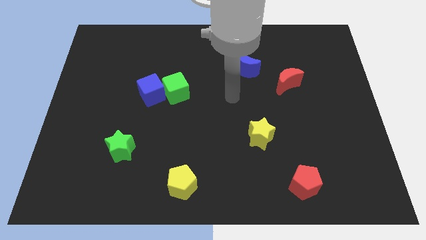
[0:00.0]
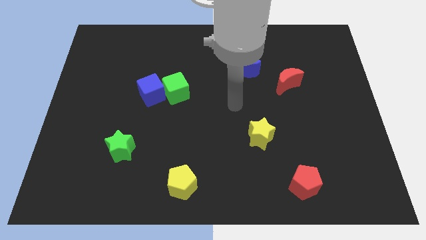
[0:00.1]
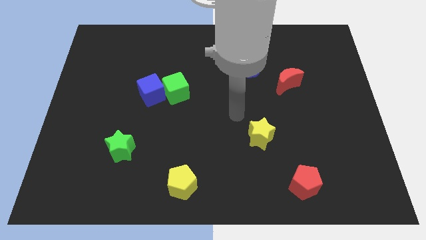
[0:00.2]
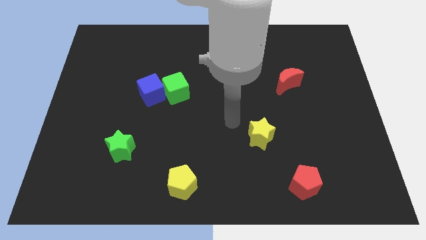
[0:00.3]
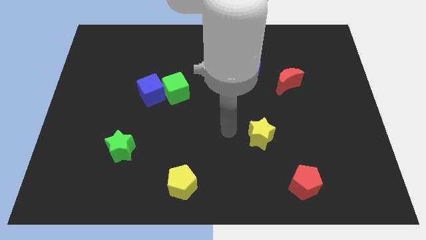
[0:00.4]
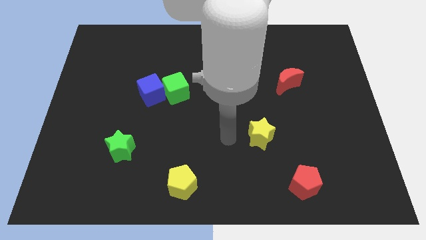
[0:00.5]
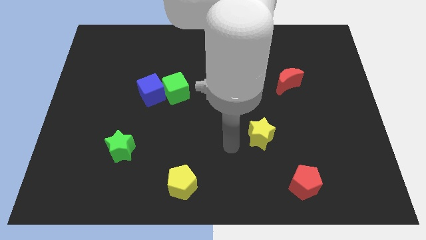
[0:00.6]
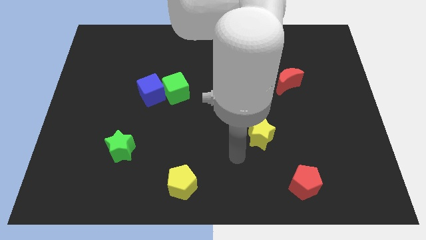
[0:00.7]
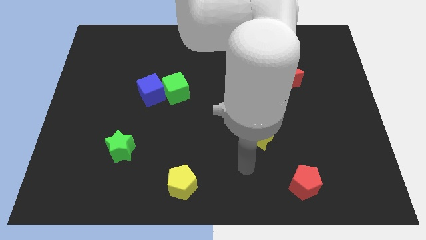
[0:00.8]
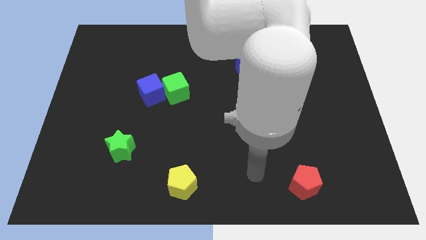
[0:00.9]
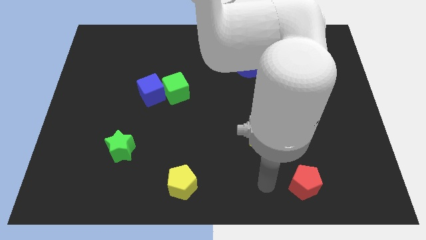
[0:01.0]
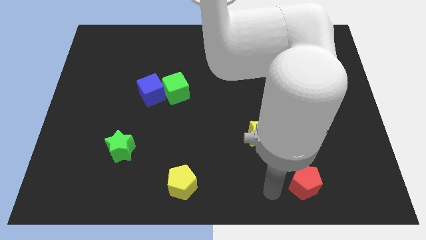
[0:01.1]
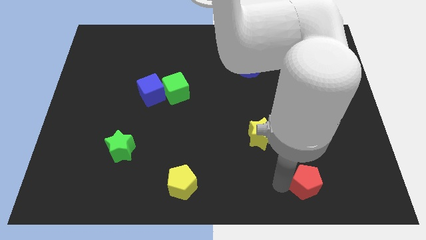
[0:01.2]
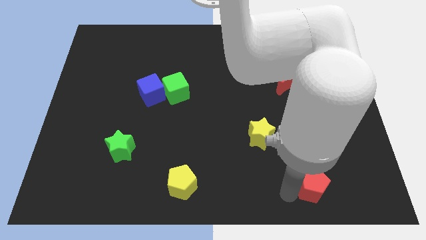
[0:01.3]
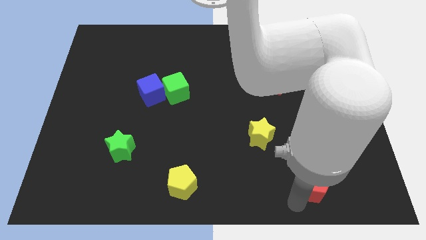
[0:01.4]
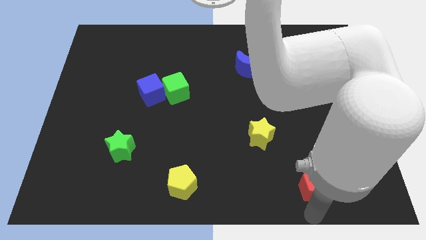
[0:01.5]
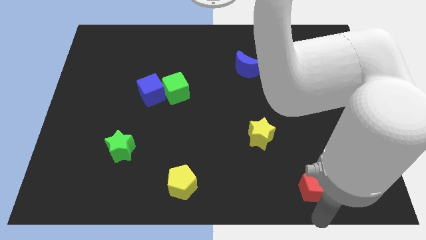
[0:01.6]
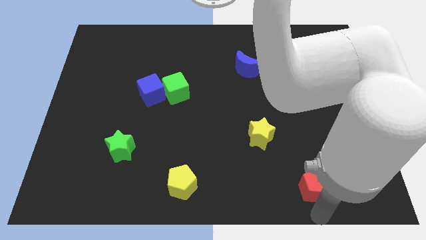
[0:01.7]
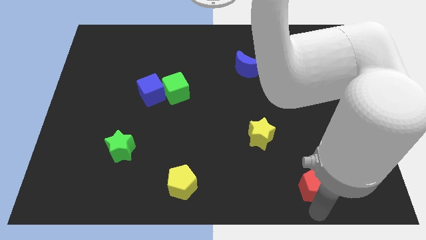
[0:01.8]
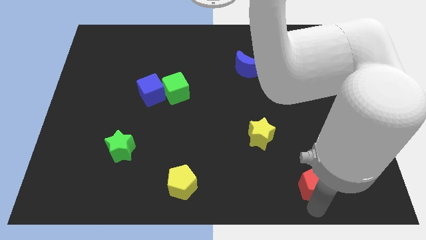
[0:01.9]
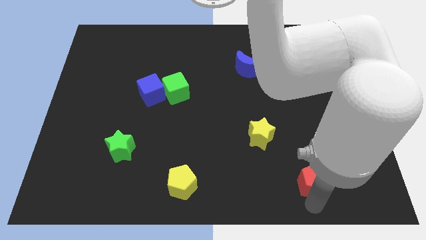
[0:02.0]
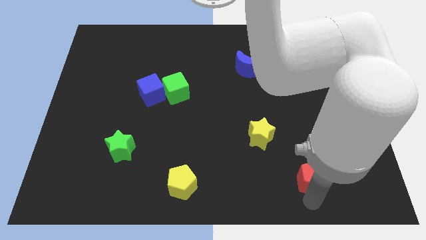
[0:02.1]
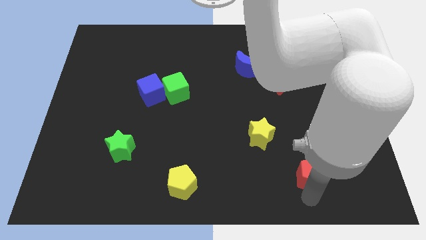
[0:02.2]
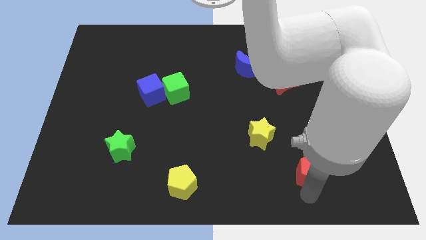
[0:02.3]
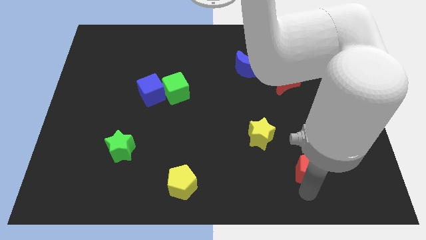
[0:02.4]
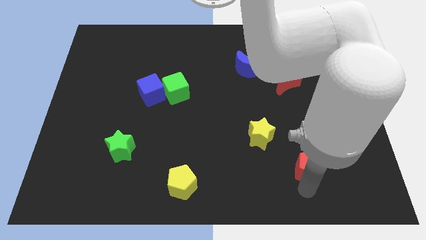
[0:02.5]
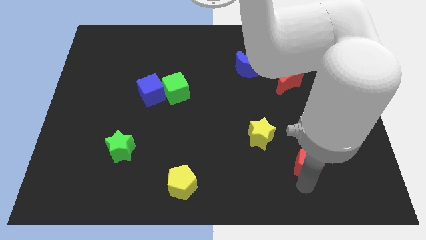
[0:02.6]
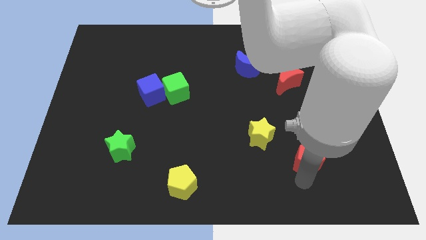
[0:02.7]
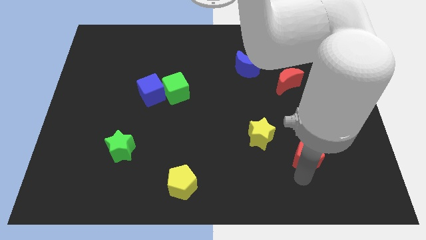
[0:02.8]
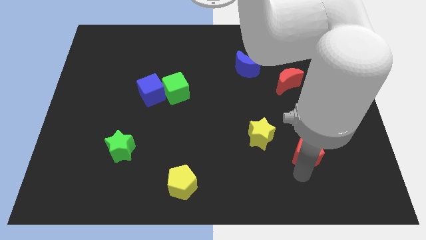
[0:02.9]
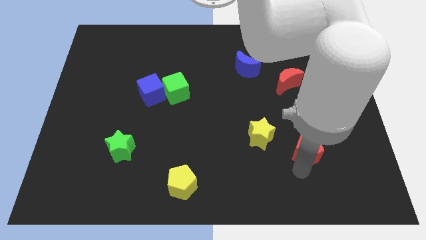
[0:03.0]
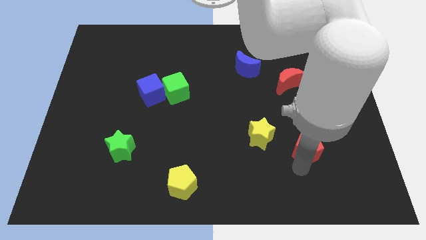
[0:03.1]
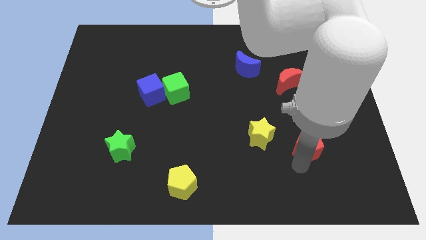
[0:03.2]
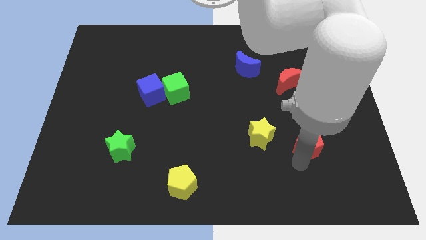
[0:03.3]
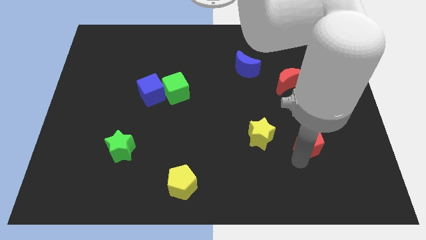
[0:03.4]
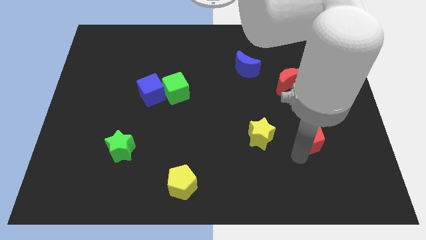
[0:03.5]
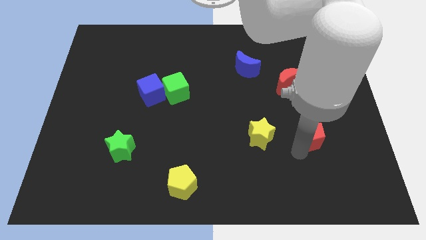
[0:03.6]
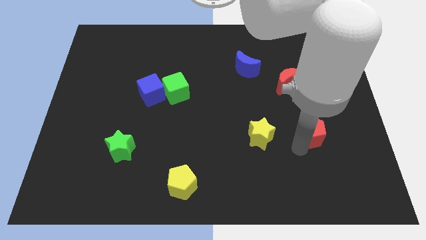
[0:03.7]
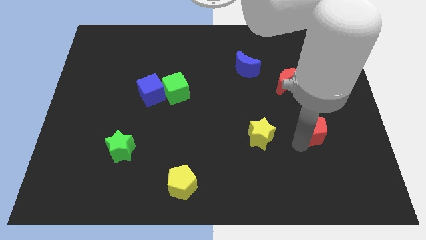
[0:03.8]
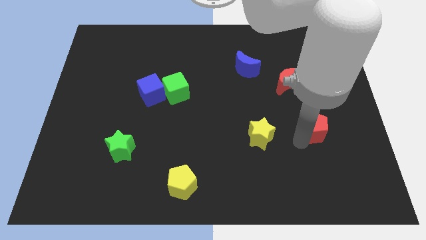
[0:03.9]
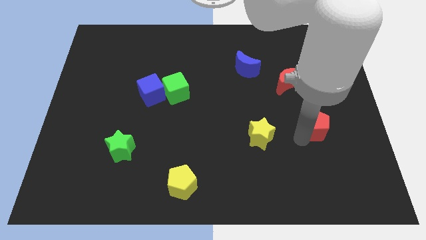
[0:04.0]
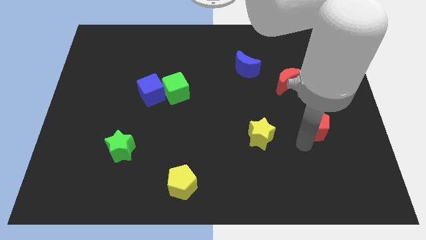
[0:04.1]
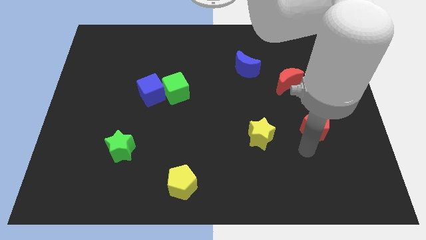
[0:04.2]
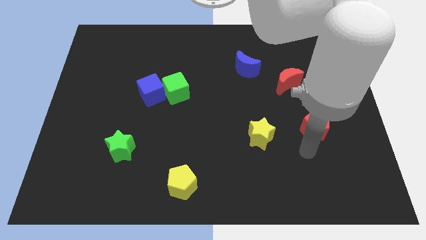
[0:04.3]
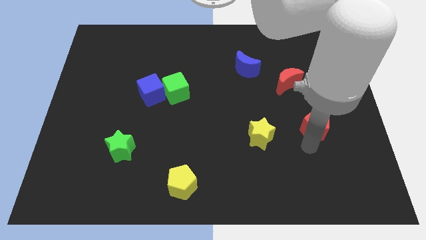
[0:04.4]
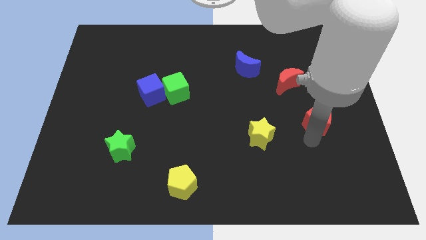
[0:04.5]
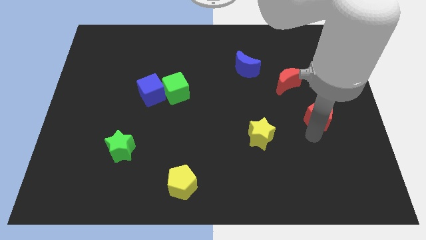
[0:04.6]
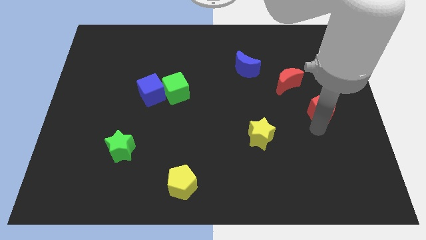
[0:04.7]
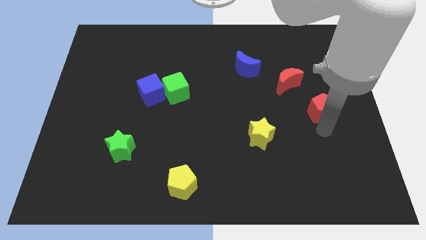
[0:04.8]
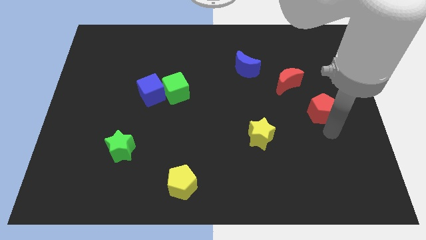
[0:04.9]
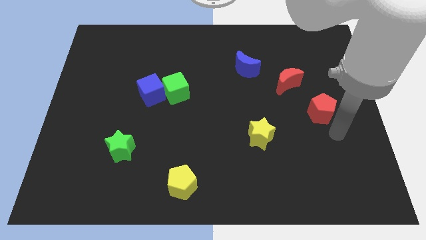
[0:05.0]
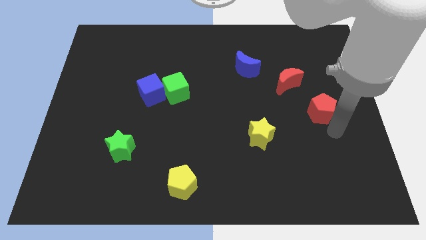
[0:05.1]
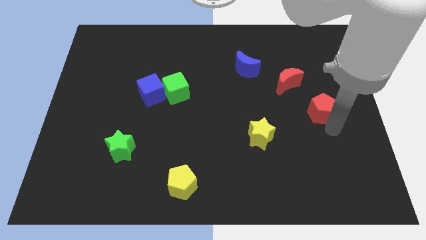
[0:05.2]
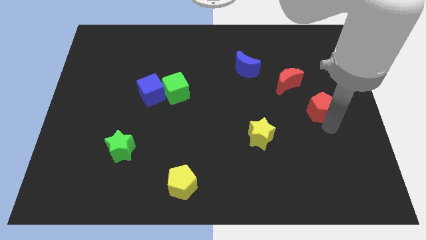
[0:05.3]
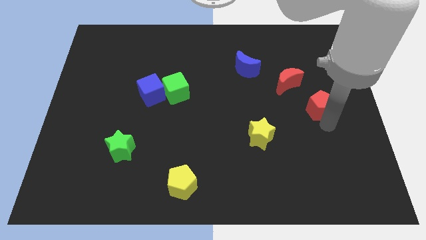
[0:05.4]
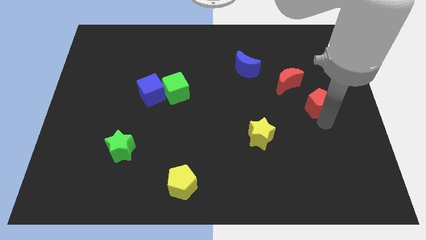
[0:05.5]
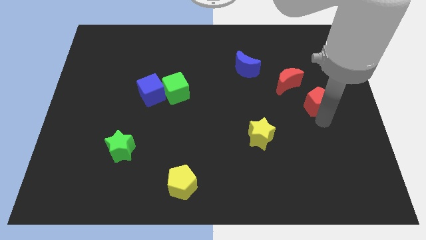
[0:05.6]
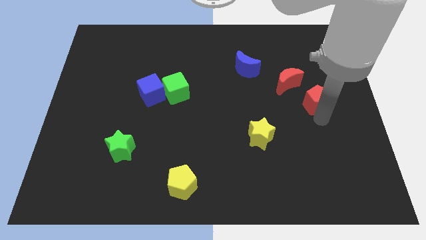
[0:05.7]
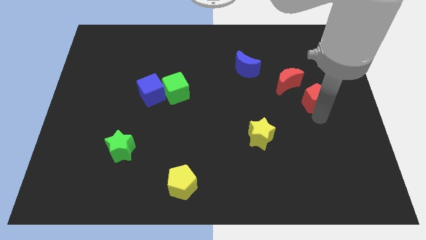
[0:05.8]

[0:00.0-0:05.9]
slide the red pentagon up

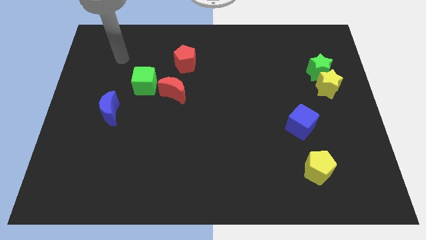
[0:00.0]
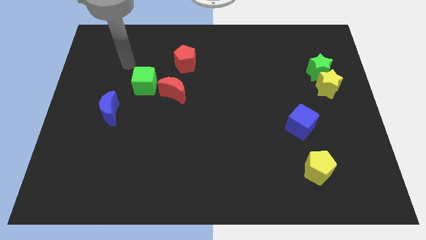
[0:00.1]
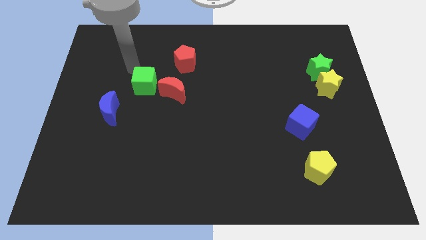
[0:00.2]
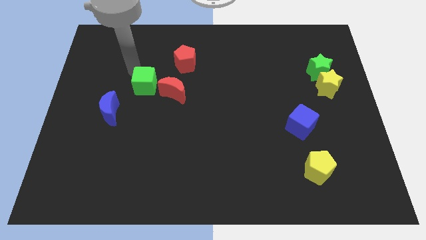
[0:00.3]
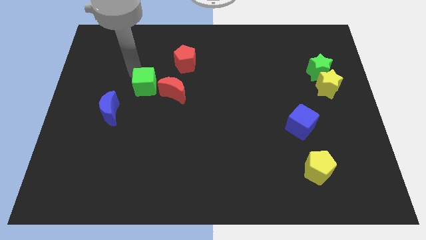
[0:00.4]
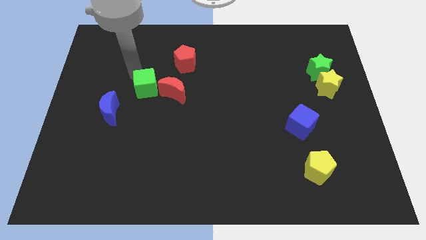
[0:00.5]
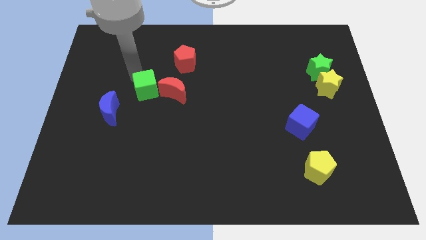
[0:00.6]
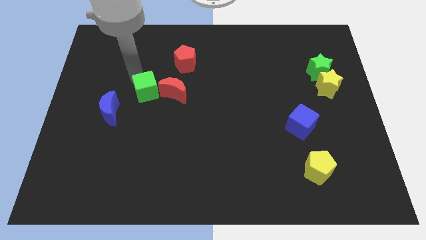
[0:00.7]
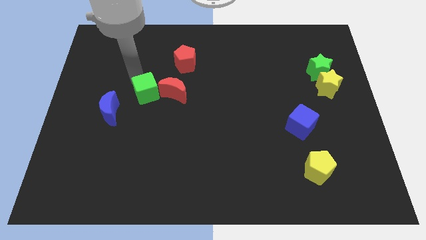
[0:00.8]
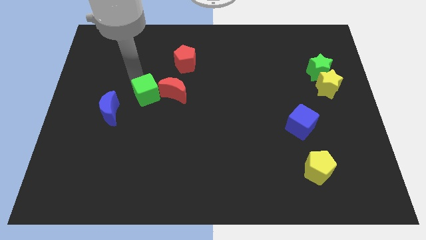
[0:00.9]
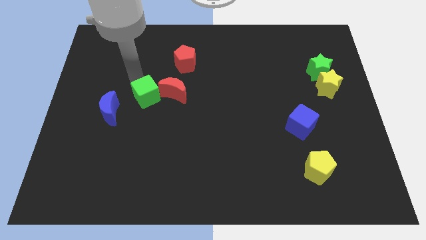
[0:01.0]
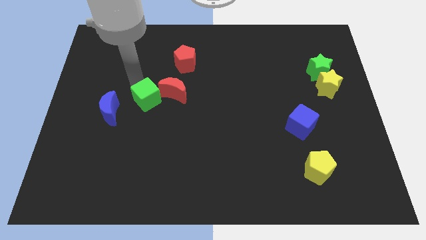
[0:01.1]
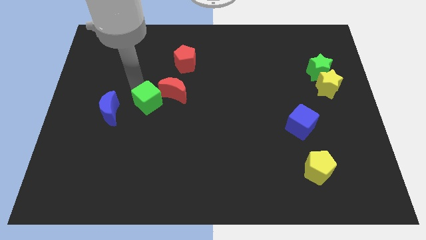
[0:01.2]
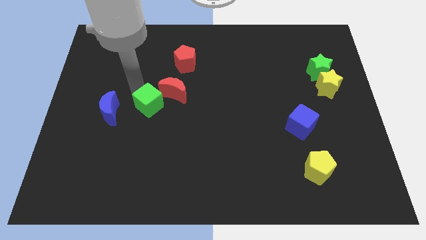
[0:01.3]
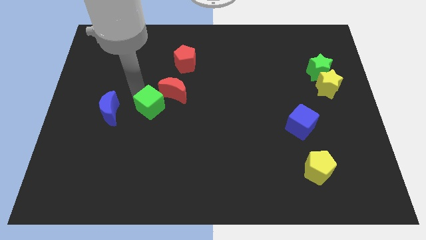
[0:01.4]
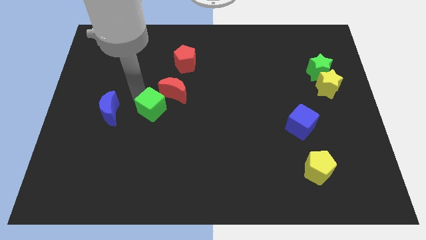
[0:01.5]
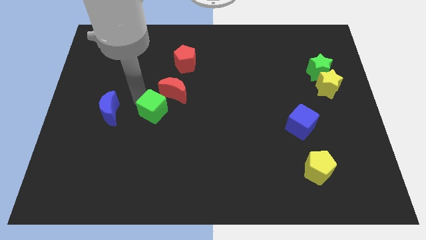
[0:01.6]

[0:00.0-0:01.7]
push the green cube slightly diagonally down and to the right

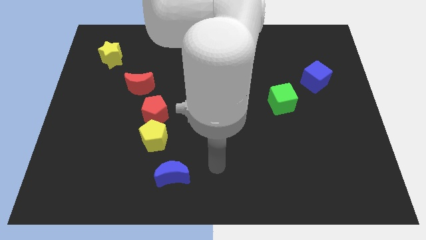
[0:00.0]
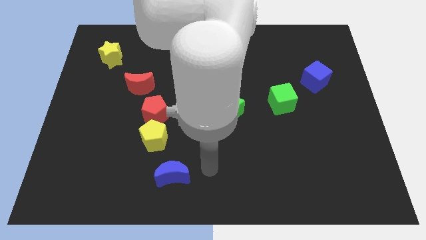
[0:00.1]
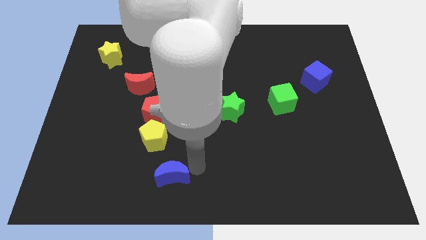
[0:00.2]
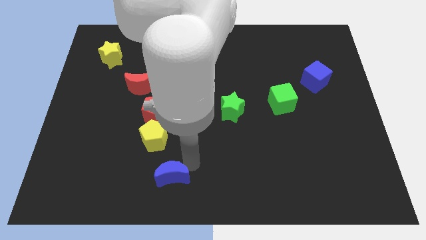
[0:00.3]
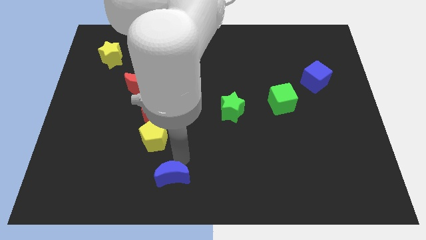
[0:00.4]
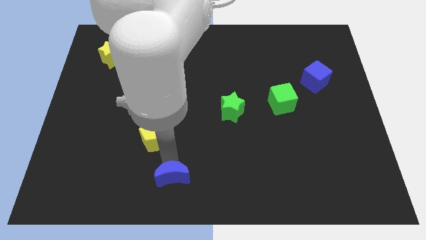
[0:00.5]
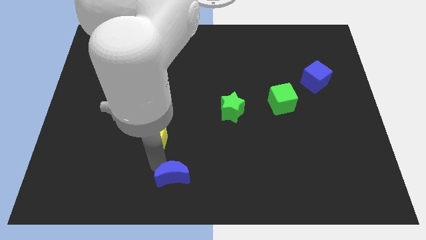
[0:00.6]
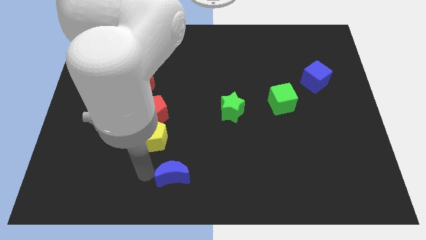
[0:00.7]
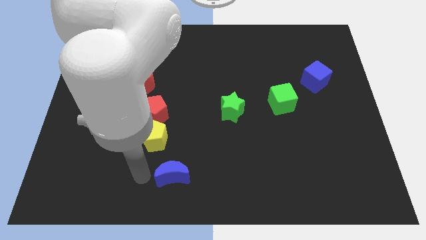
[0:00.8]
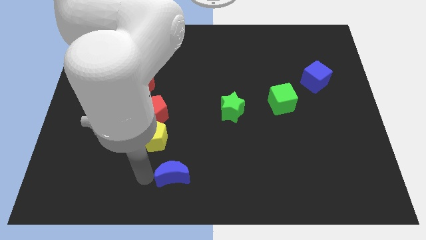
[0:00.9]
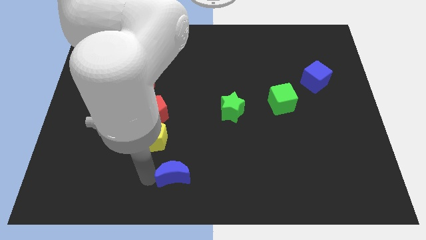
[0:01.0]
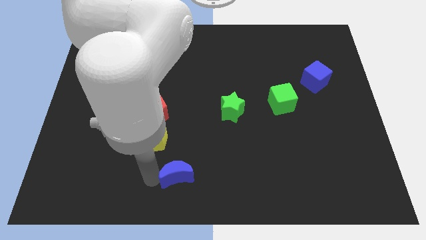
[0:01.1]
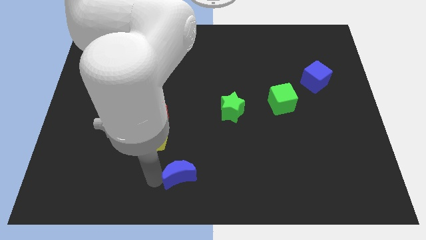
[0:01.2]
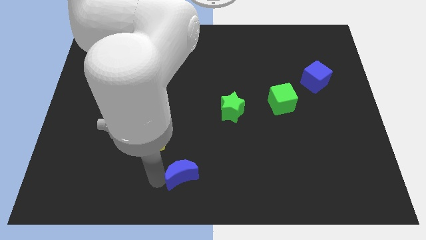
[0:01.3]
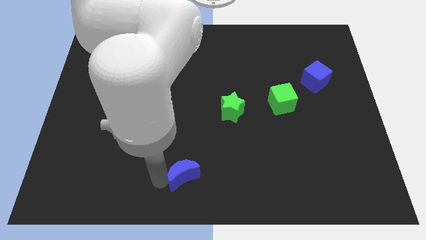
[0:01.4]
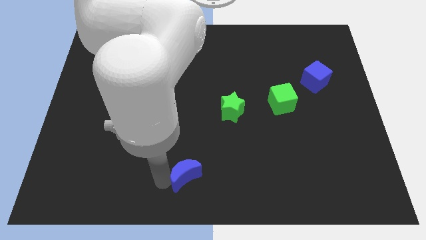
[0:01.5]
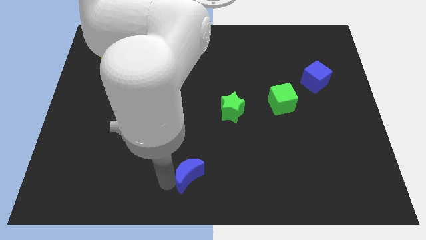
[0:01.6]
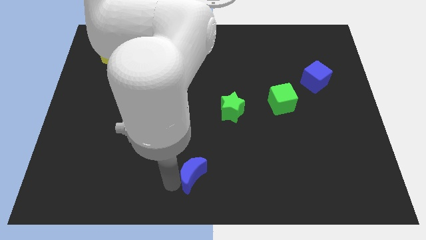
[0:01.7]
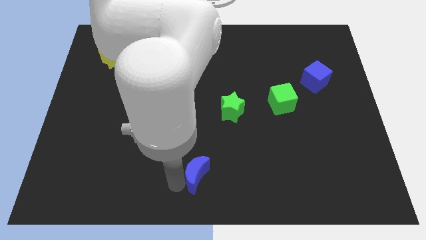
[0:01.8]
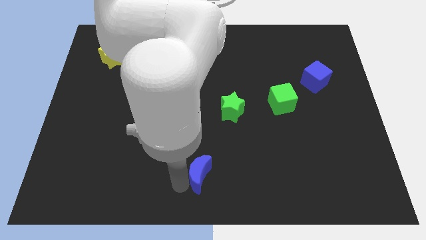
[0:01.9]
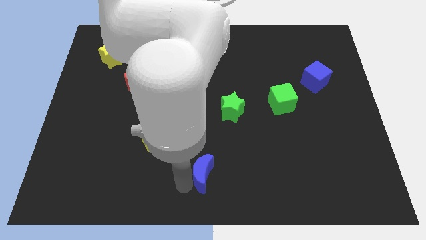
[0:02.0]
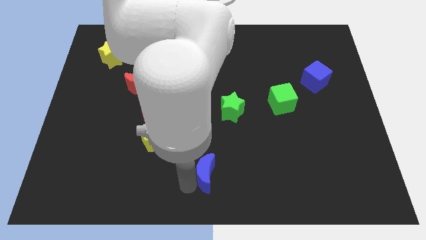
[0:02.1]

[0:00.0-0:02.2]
move the blue moon to the right a little
